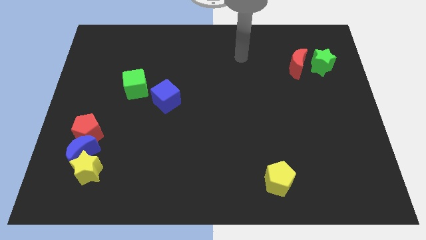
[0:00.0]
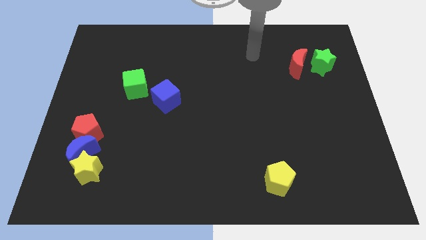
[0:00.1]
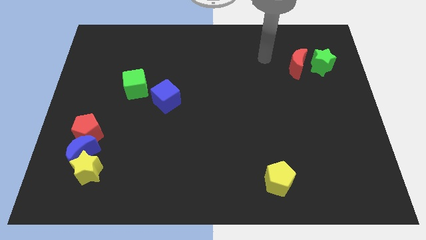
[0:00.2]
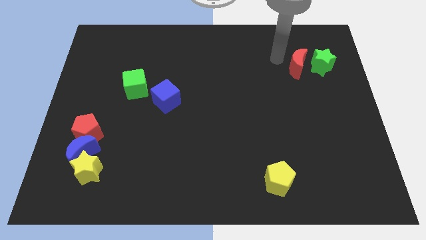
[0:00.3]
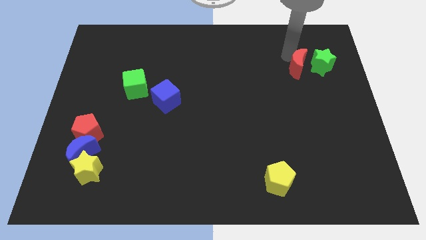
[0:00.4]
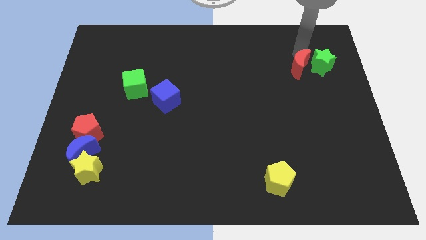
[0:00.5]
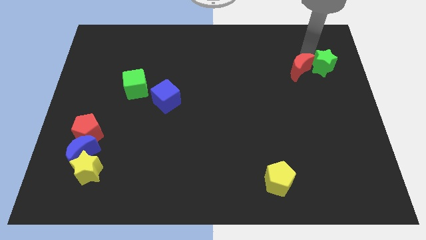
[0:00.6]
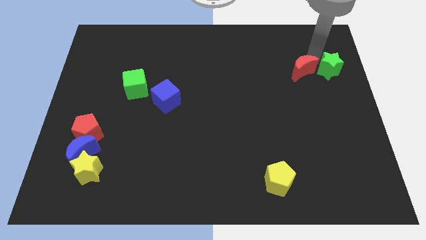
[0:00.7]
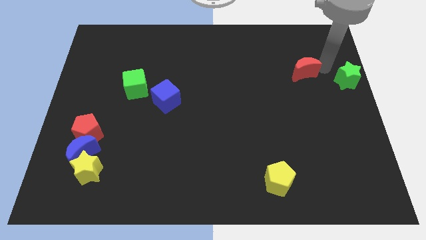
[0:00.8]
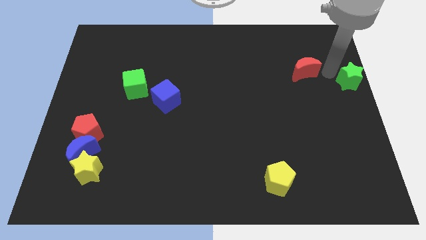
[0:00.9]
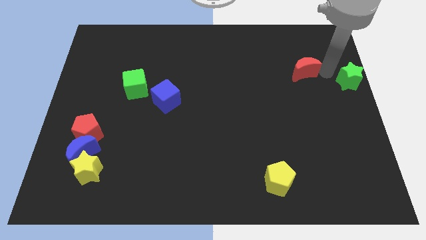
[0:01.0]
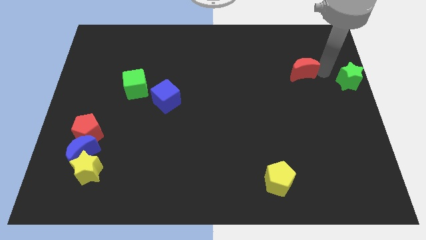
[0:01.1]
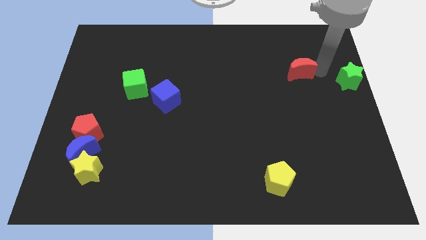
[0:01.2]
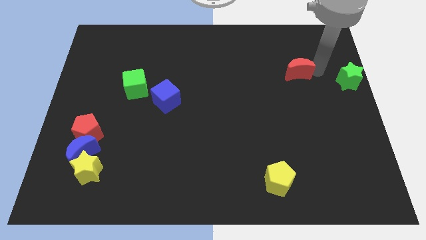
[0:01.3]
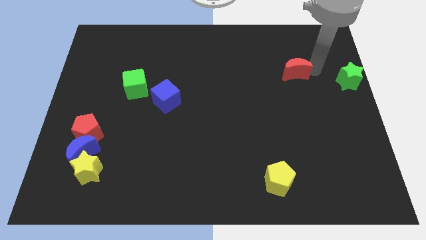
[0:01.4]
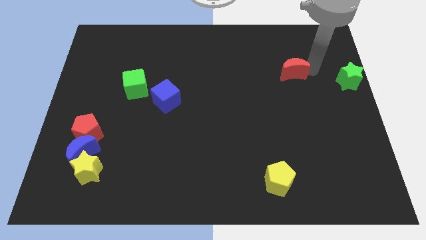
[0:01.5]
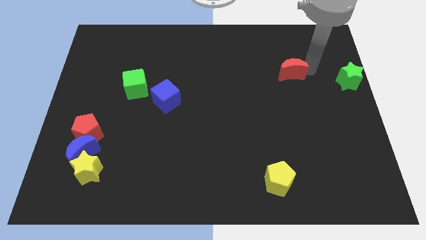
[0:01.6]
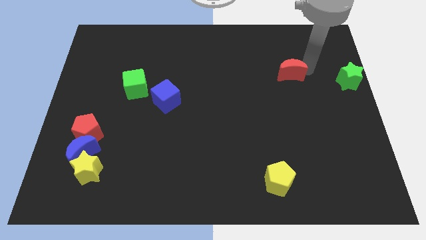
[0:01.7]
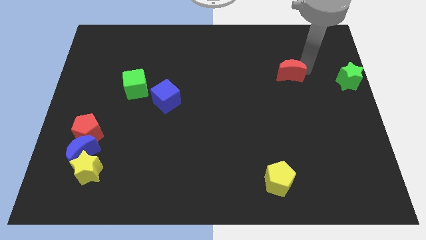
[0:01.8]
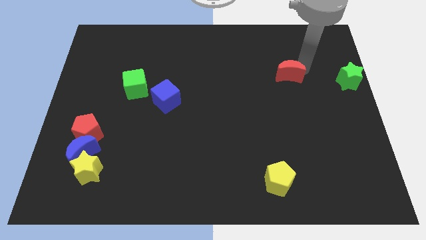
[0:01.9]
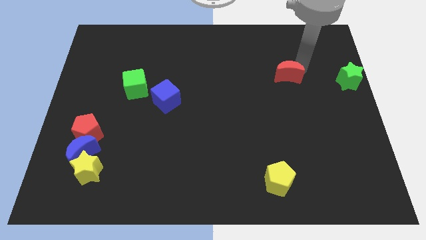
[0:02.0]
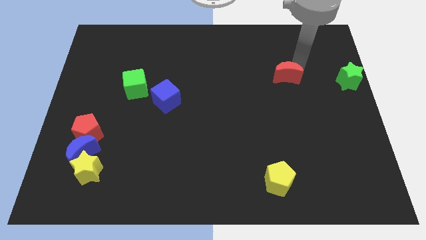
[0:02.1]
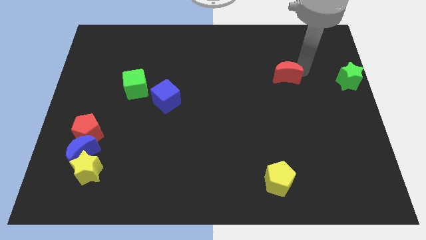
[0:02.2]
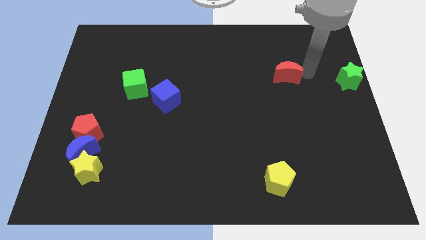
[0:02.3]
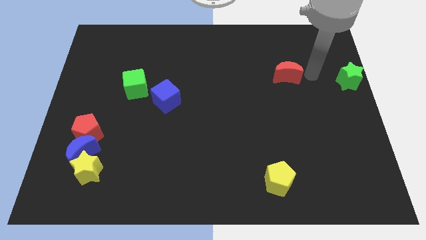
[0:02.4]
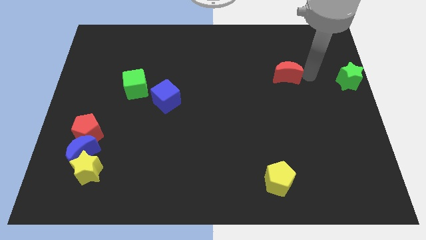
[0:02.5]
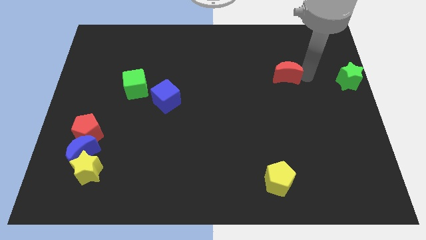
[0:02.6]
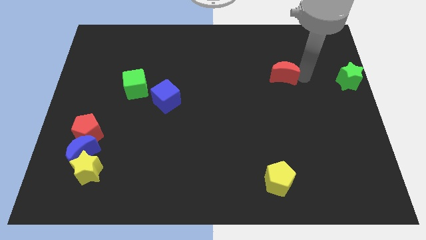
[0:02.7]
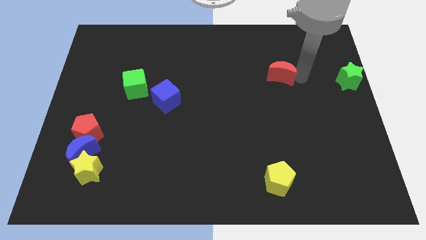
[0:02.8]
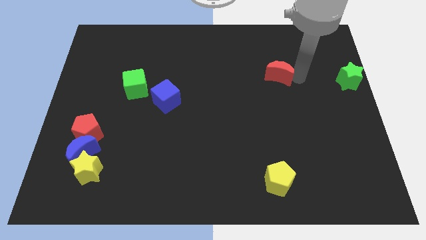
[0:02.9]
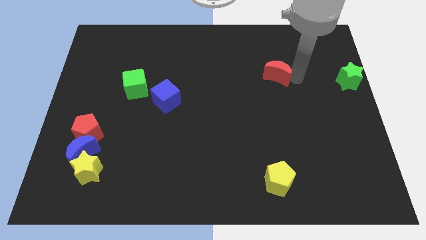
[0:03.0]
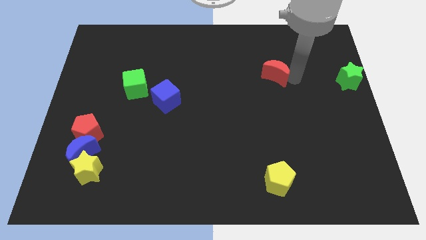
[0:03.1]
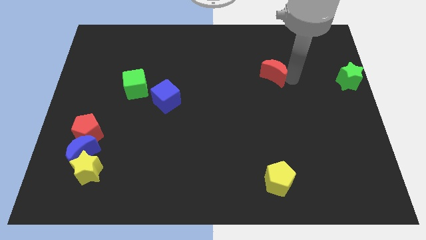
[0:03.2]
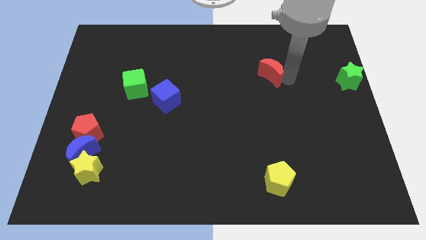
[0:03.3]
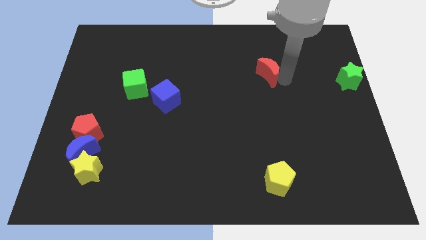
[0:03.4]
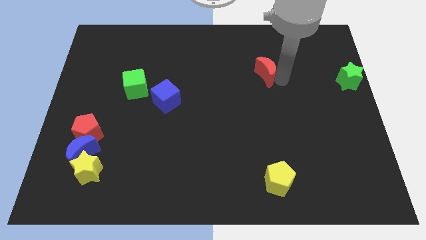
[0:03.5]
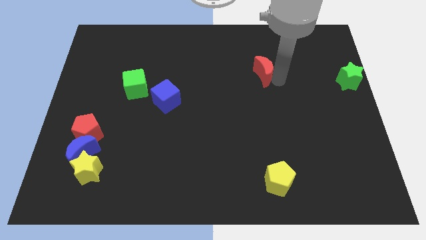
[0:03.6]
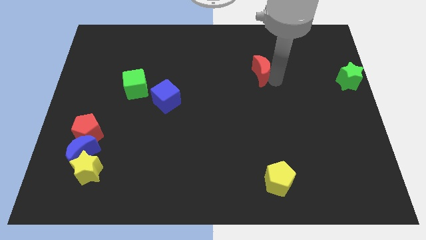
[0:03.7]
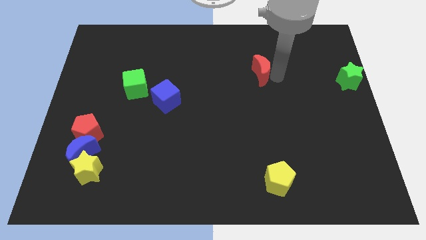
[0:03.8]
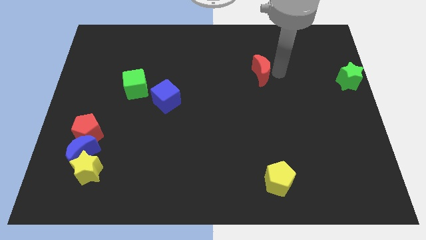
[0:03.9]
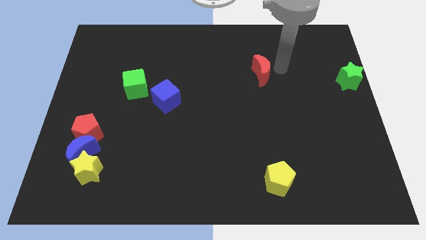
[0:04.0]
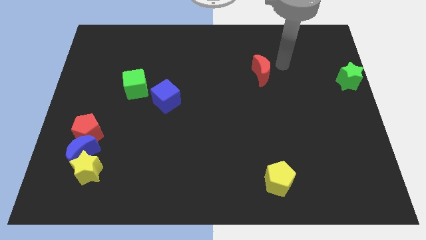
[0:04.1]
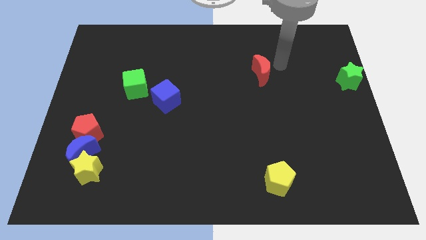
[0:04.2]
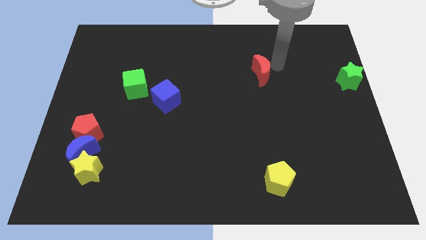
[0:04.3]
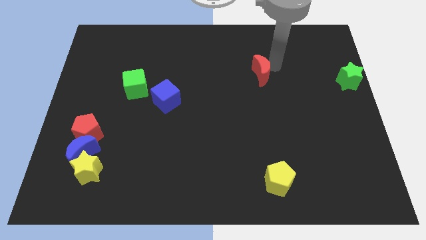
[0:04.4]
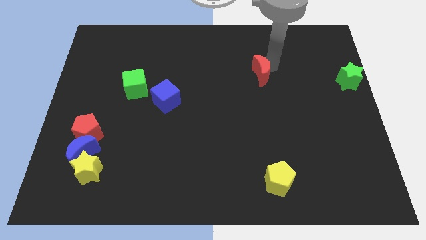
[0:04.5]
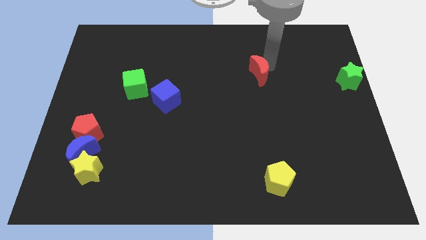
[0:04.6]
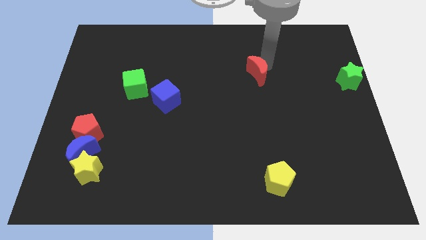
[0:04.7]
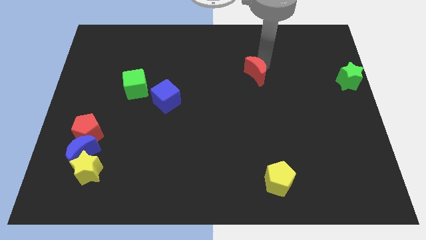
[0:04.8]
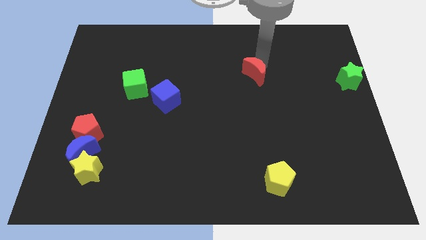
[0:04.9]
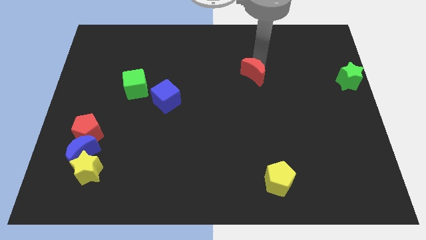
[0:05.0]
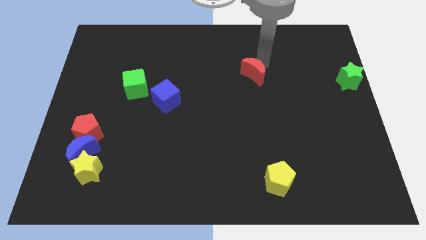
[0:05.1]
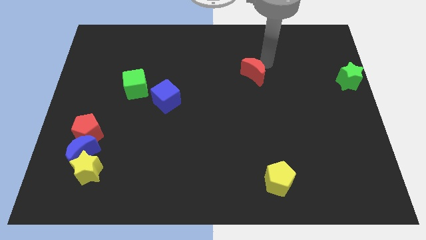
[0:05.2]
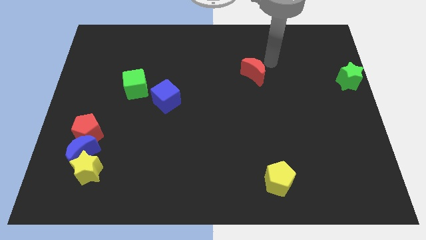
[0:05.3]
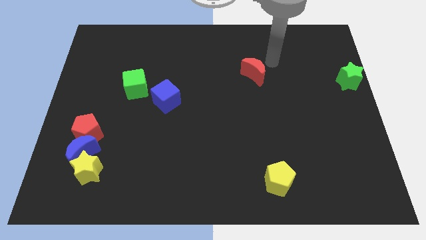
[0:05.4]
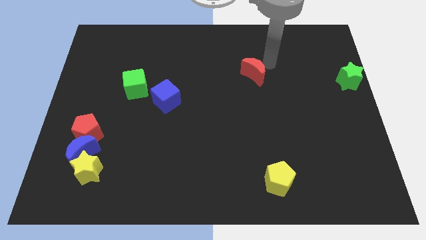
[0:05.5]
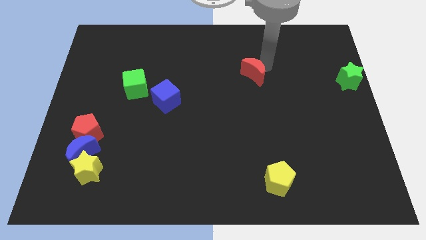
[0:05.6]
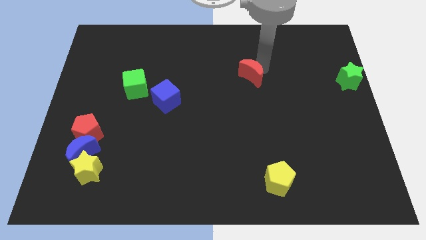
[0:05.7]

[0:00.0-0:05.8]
move the red moon to the center

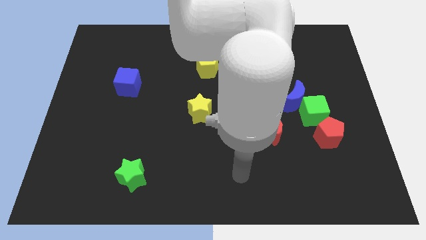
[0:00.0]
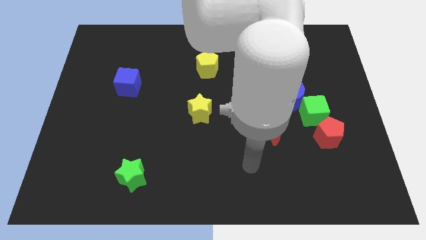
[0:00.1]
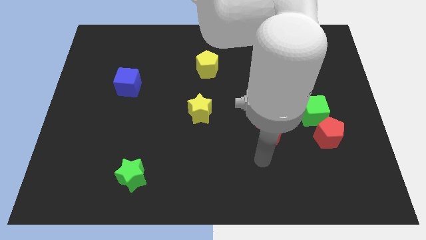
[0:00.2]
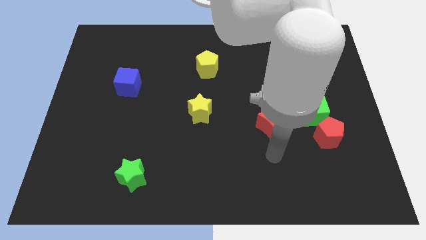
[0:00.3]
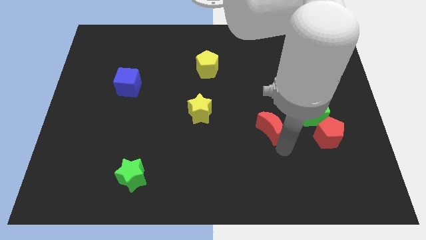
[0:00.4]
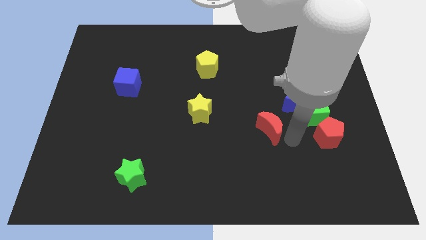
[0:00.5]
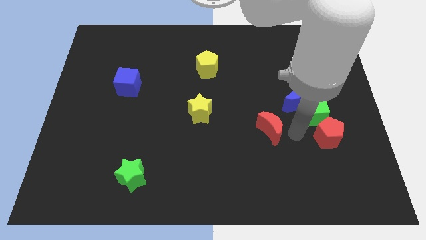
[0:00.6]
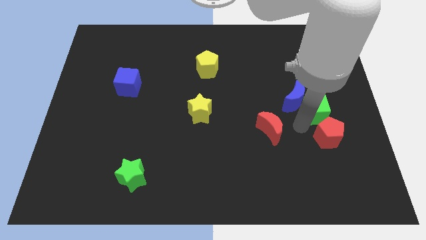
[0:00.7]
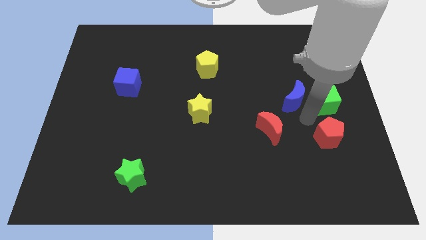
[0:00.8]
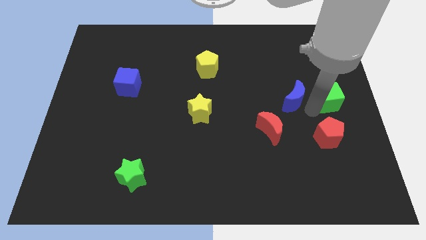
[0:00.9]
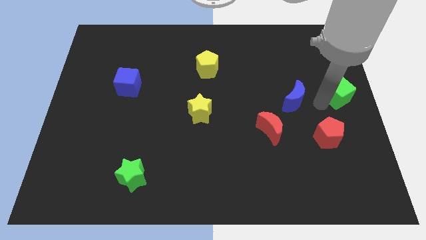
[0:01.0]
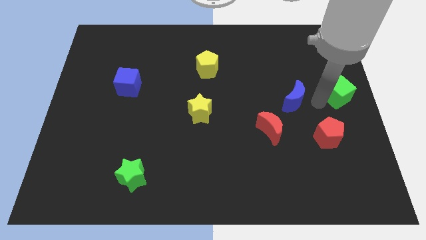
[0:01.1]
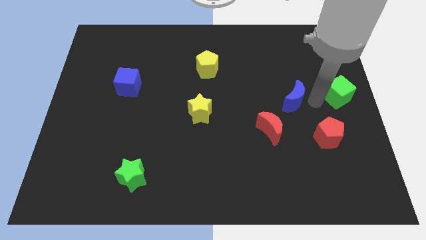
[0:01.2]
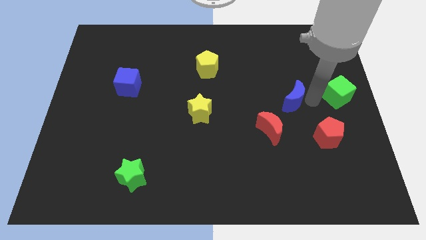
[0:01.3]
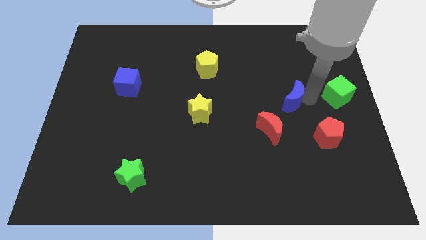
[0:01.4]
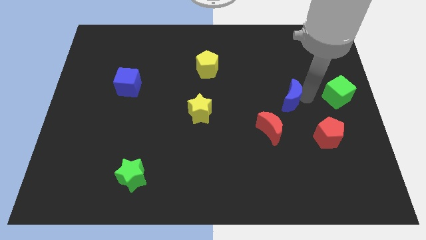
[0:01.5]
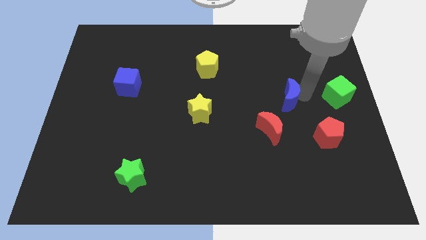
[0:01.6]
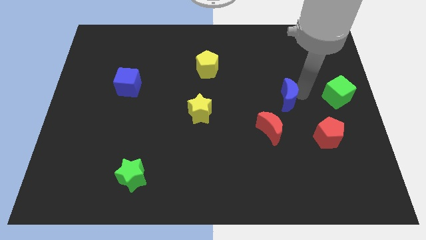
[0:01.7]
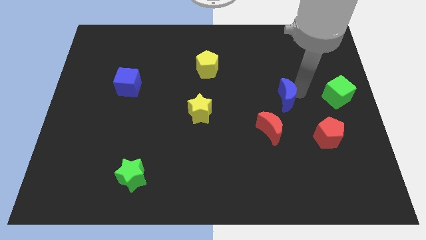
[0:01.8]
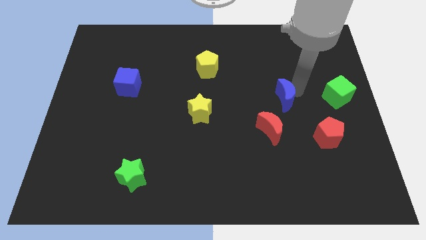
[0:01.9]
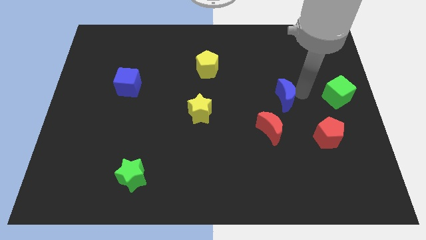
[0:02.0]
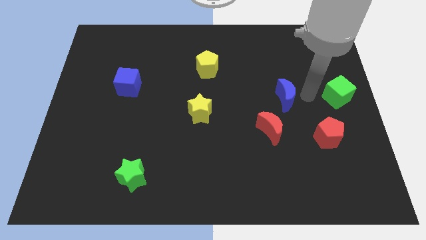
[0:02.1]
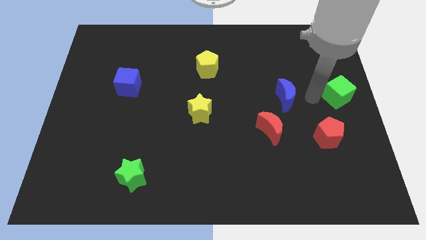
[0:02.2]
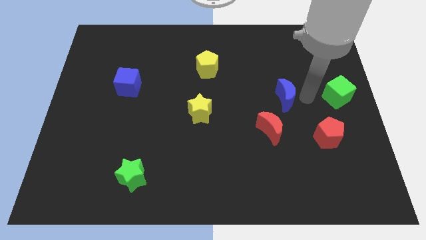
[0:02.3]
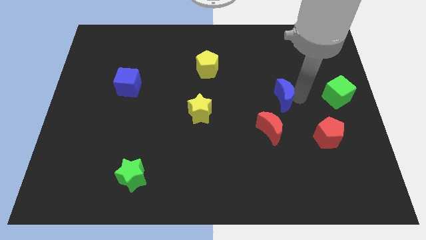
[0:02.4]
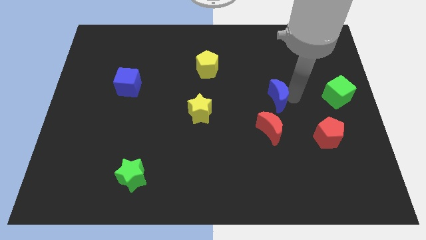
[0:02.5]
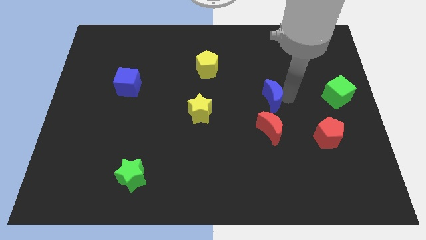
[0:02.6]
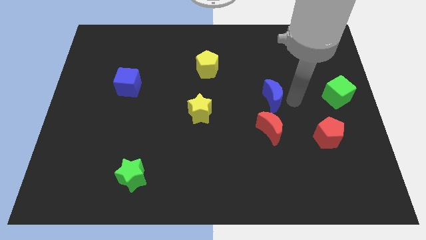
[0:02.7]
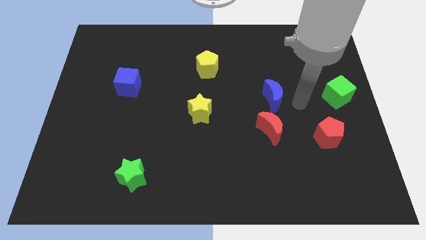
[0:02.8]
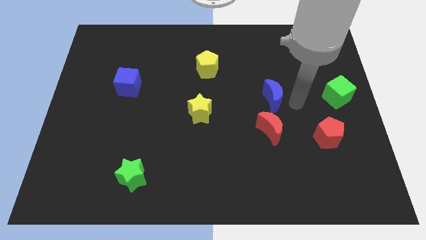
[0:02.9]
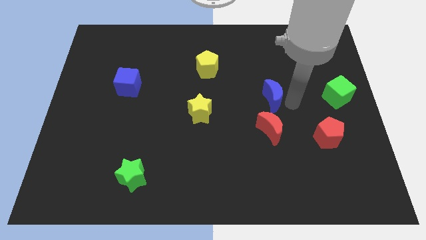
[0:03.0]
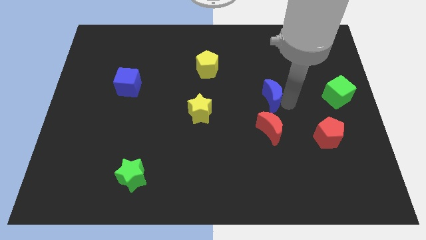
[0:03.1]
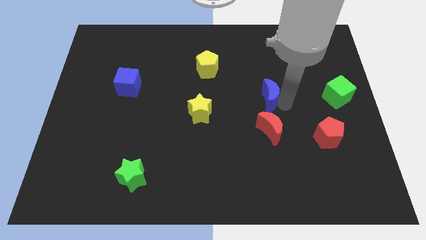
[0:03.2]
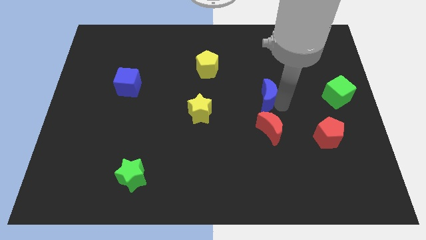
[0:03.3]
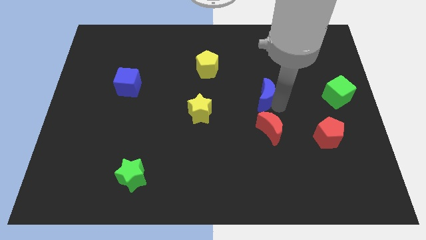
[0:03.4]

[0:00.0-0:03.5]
slide the blue moon to the middle of the board
